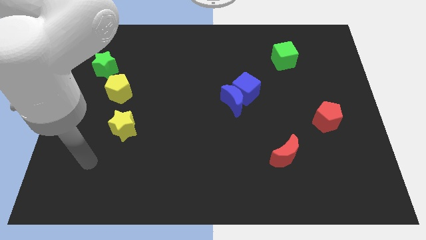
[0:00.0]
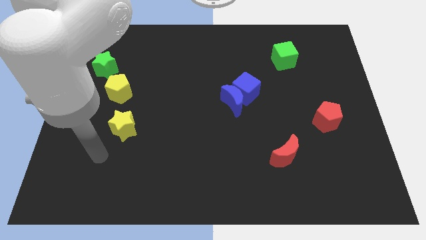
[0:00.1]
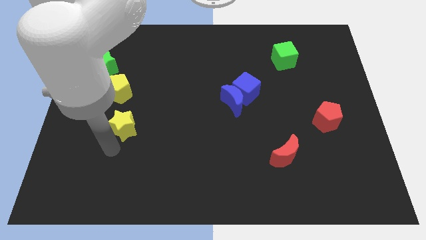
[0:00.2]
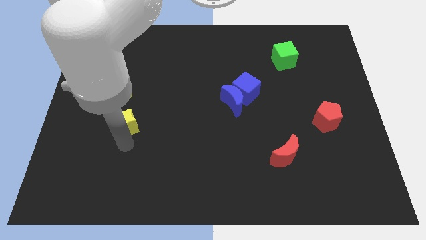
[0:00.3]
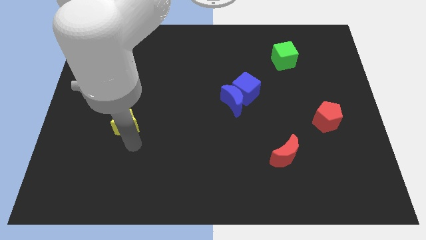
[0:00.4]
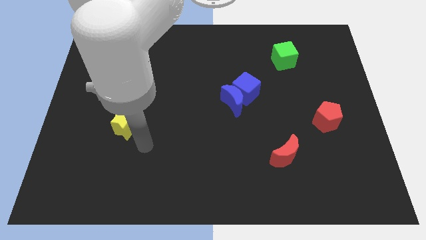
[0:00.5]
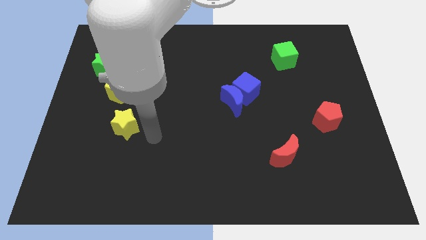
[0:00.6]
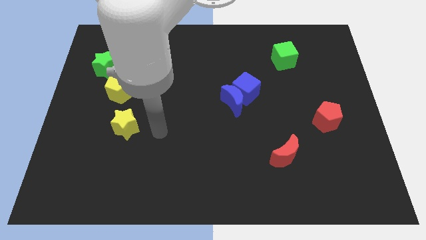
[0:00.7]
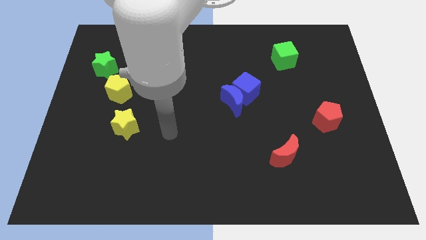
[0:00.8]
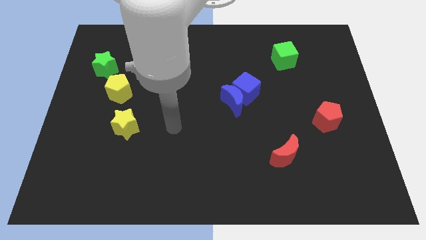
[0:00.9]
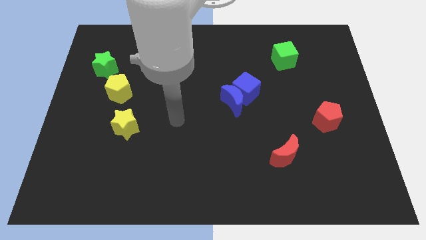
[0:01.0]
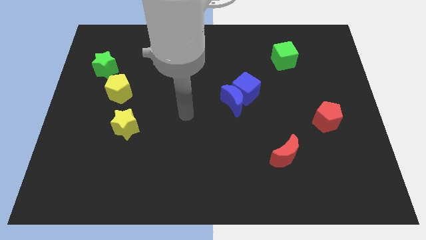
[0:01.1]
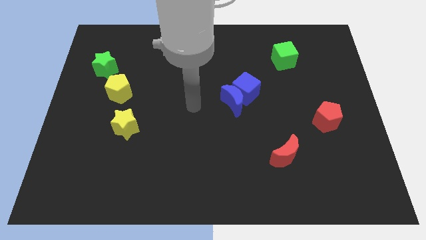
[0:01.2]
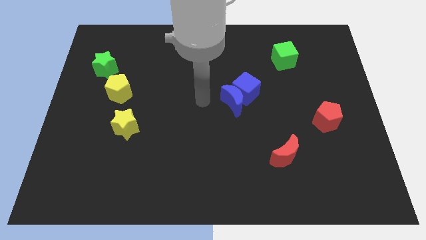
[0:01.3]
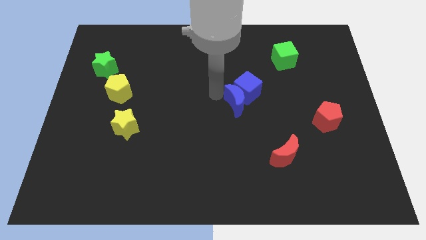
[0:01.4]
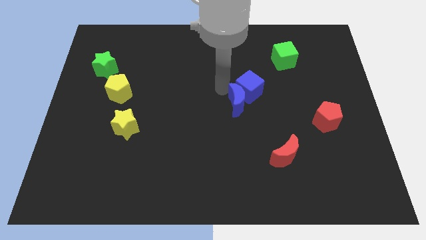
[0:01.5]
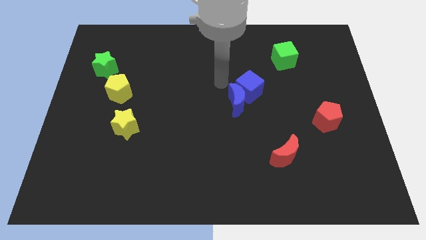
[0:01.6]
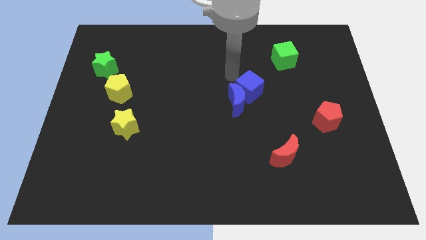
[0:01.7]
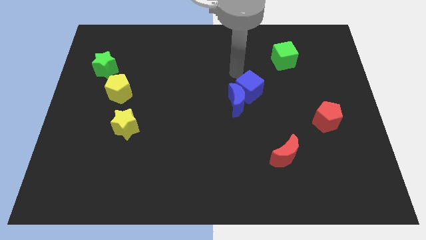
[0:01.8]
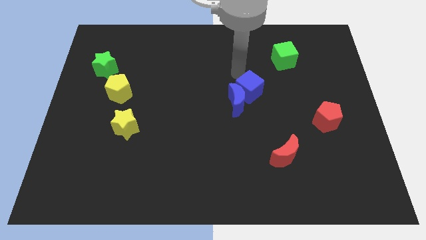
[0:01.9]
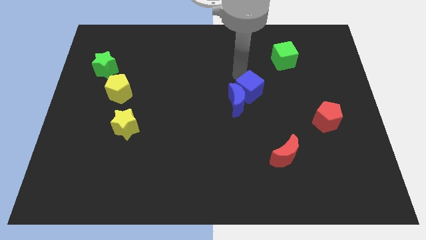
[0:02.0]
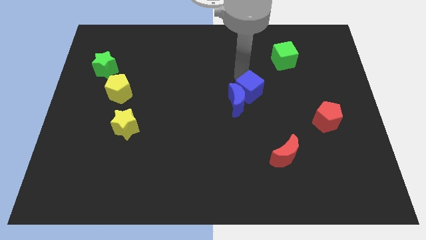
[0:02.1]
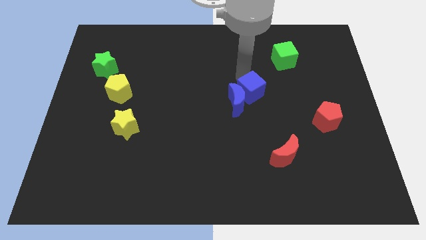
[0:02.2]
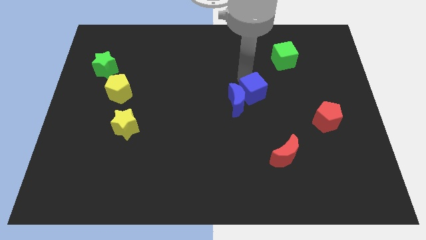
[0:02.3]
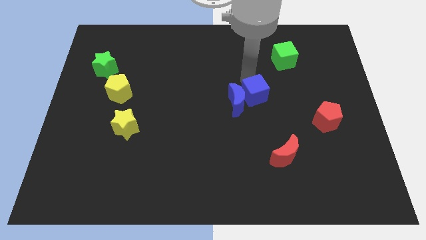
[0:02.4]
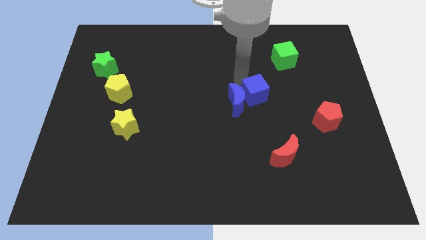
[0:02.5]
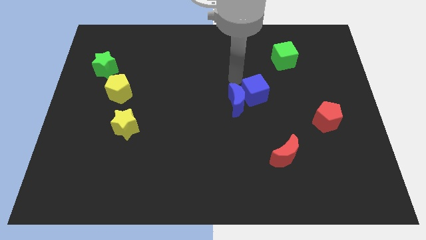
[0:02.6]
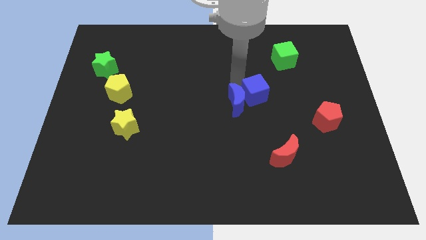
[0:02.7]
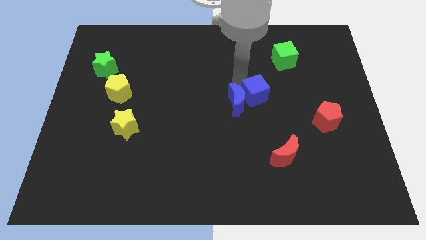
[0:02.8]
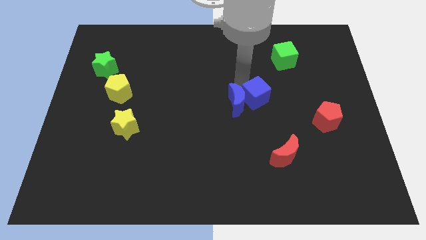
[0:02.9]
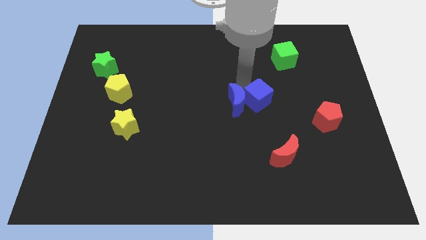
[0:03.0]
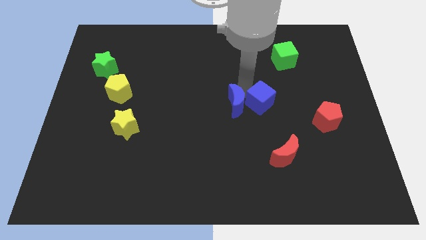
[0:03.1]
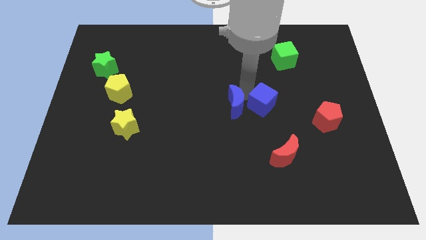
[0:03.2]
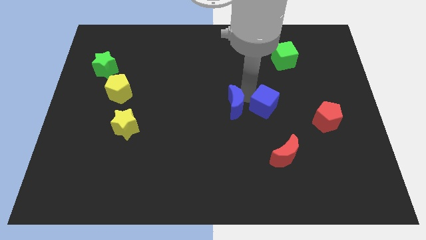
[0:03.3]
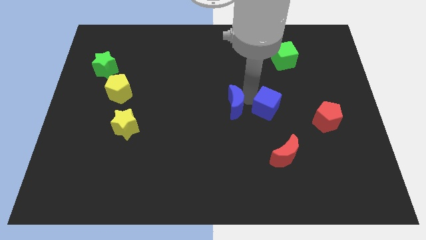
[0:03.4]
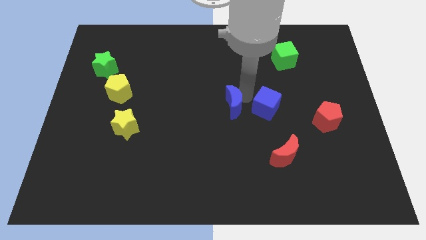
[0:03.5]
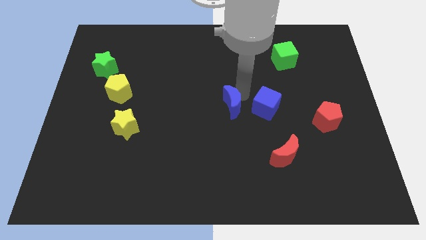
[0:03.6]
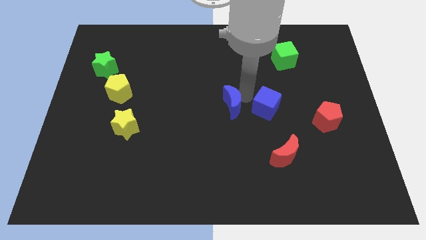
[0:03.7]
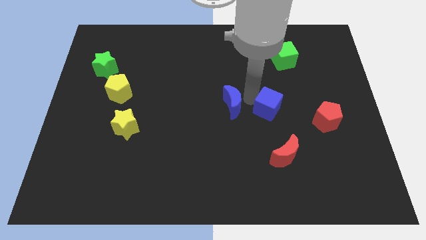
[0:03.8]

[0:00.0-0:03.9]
move the blue cube a bit downwards and then to the right

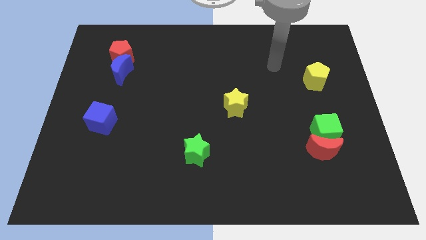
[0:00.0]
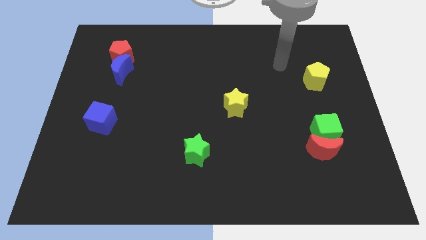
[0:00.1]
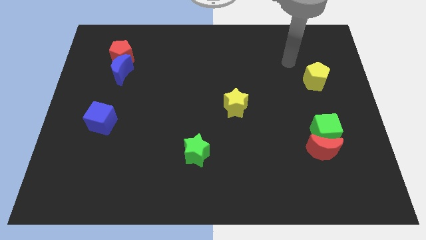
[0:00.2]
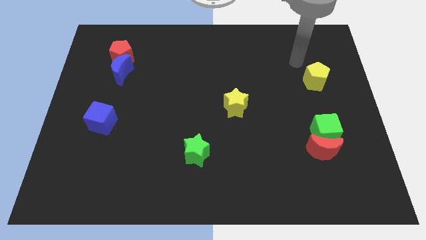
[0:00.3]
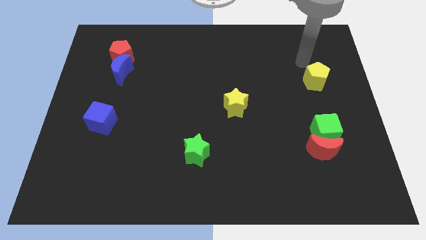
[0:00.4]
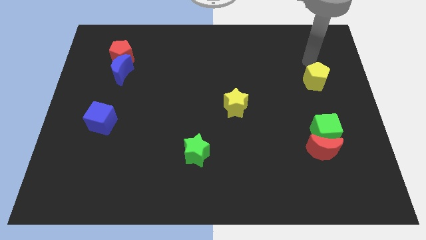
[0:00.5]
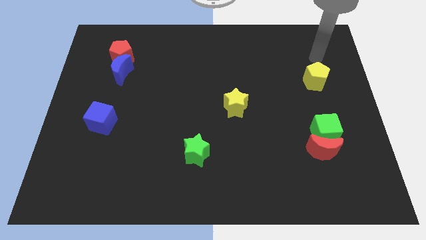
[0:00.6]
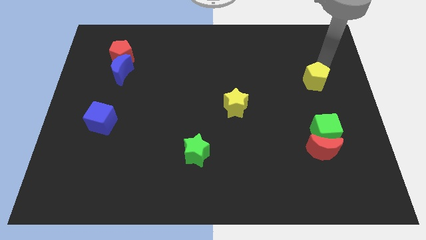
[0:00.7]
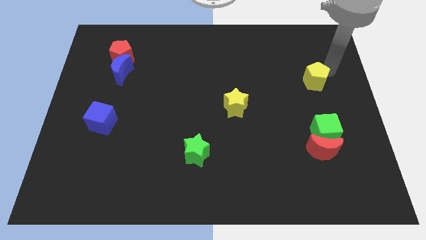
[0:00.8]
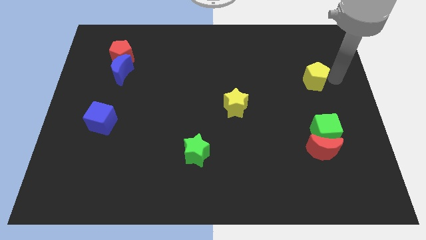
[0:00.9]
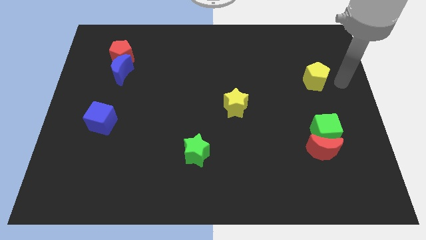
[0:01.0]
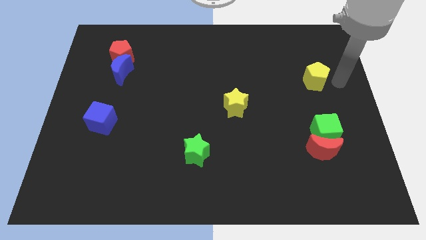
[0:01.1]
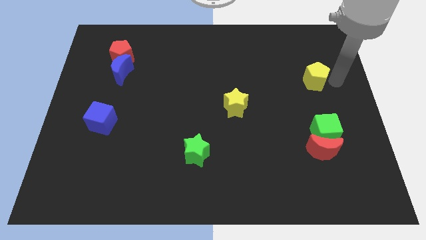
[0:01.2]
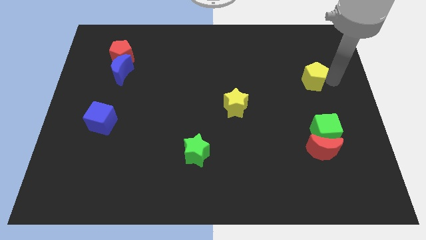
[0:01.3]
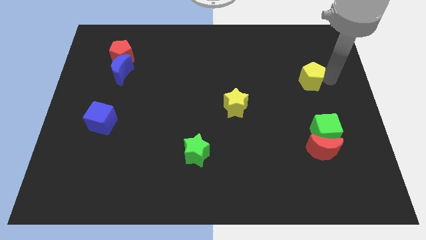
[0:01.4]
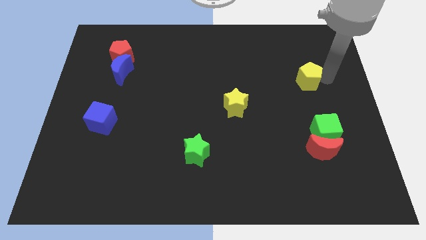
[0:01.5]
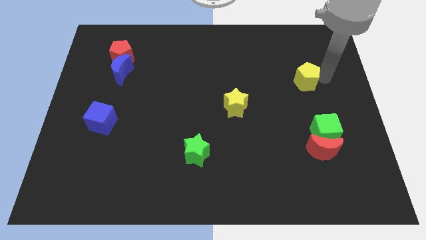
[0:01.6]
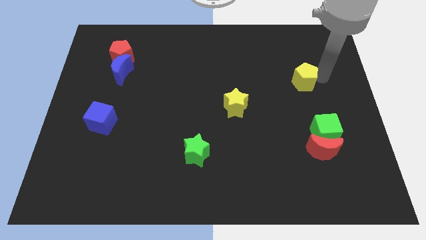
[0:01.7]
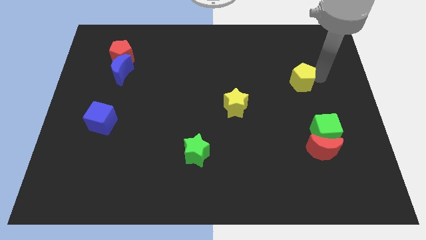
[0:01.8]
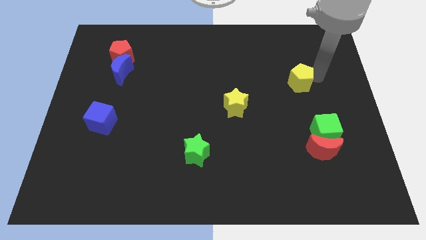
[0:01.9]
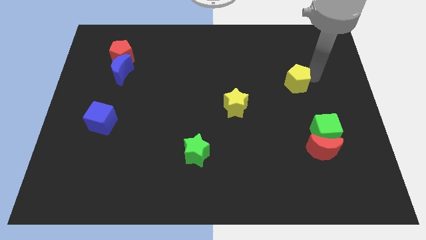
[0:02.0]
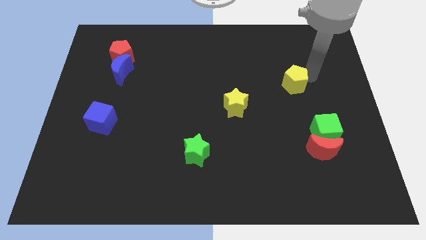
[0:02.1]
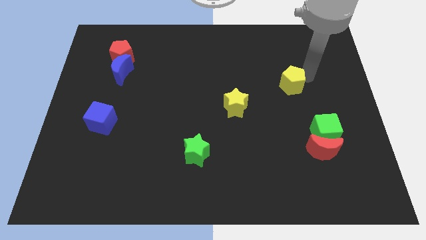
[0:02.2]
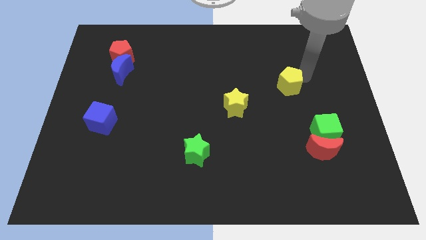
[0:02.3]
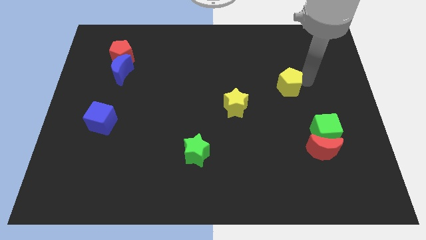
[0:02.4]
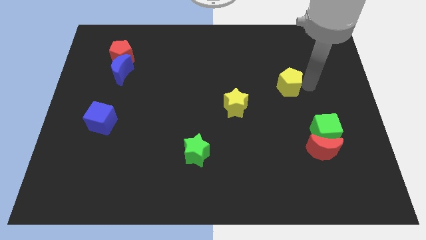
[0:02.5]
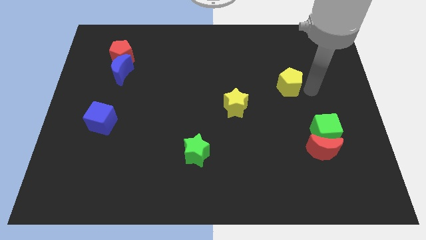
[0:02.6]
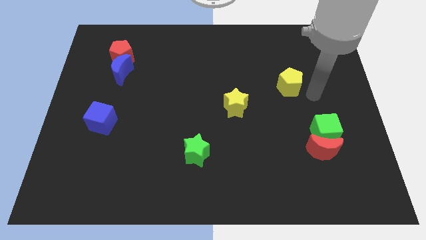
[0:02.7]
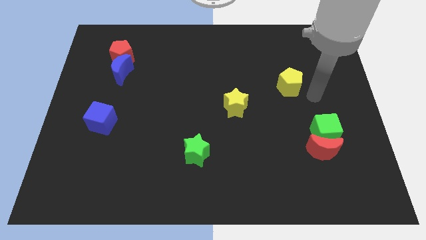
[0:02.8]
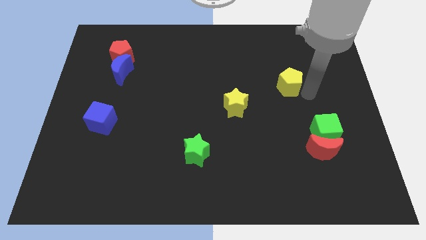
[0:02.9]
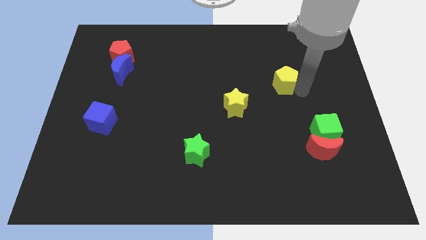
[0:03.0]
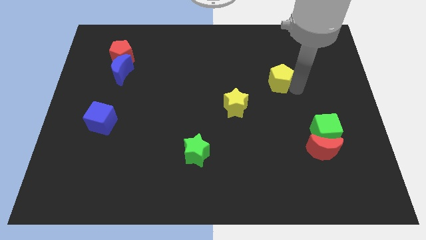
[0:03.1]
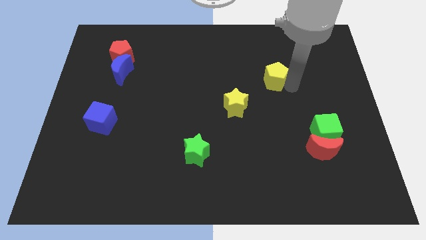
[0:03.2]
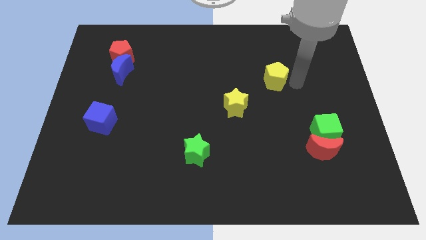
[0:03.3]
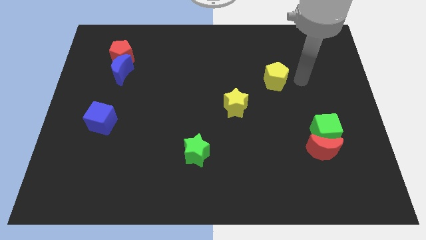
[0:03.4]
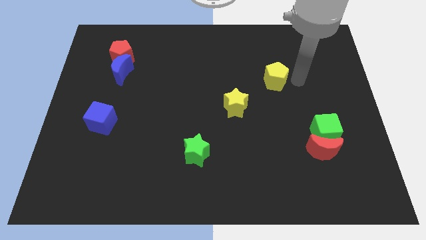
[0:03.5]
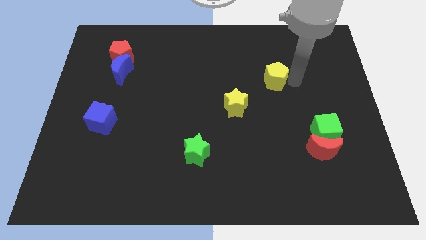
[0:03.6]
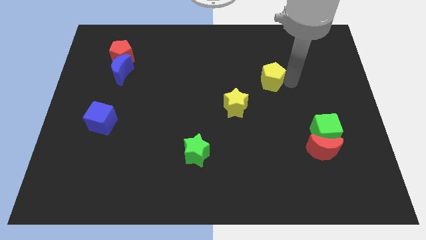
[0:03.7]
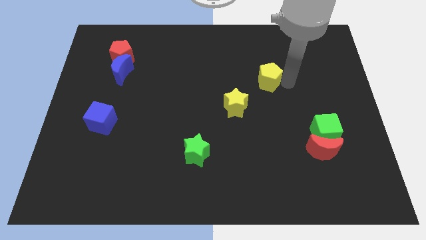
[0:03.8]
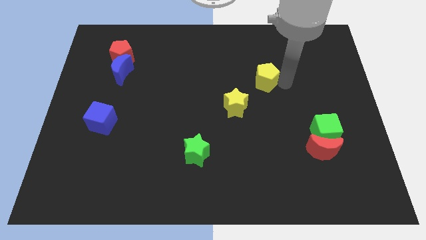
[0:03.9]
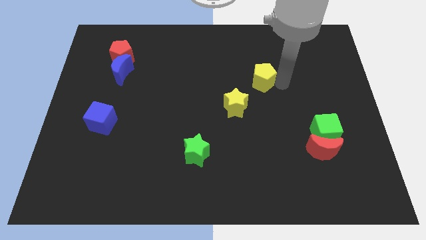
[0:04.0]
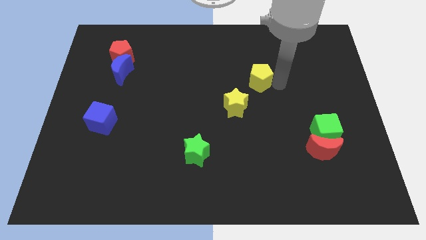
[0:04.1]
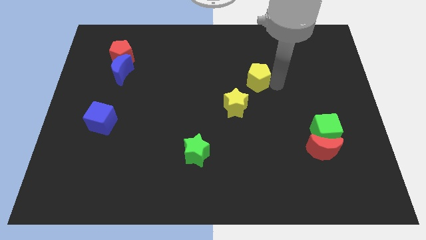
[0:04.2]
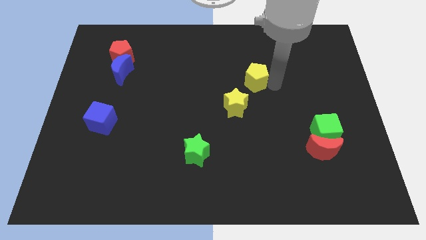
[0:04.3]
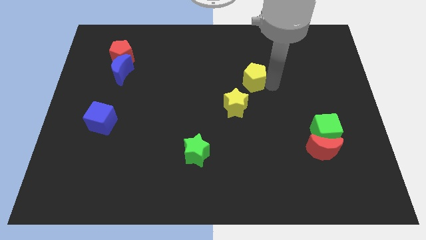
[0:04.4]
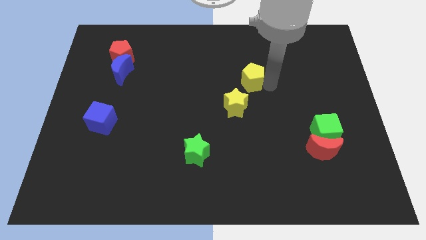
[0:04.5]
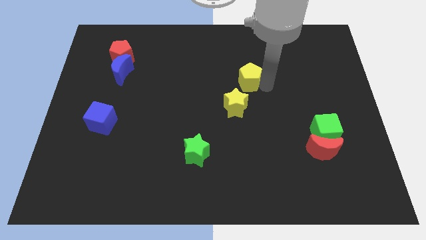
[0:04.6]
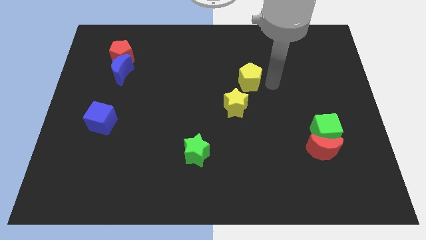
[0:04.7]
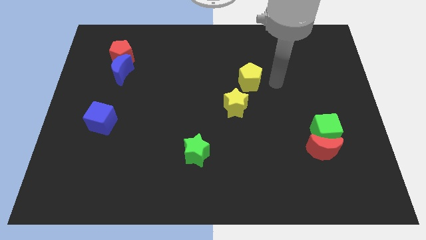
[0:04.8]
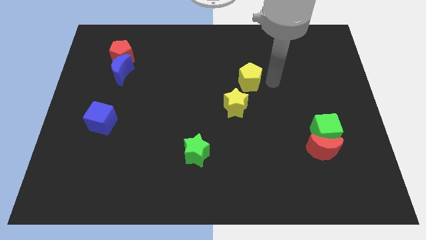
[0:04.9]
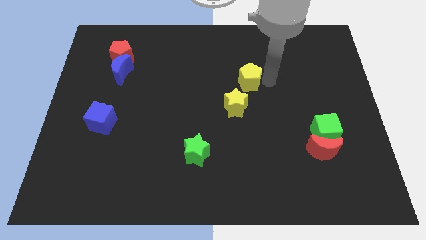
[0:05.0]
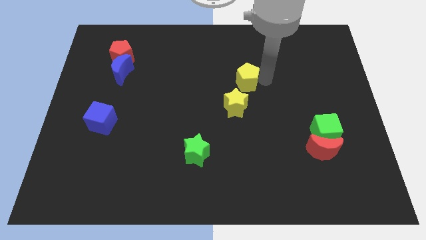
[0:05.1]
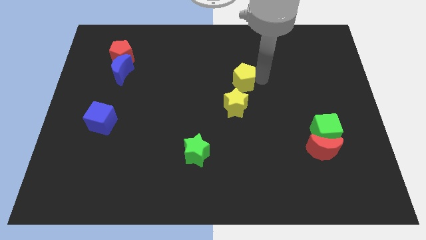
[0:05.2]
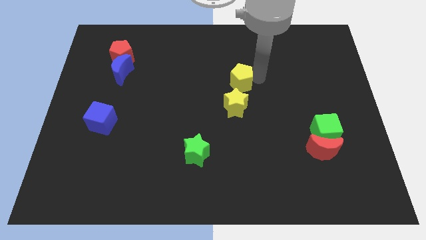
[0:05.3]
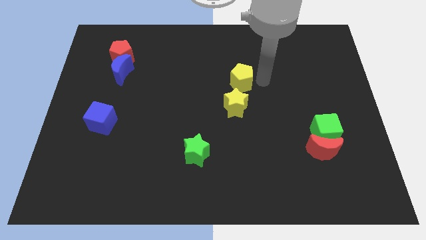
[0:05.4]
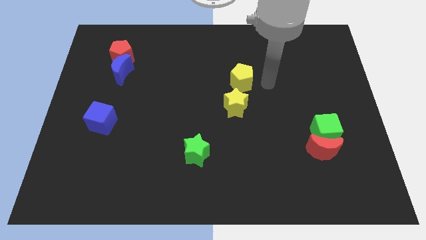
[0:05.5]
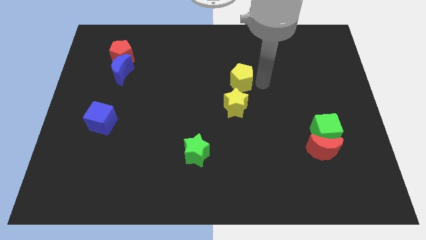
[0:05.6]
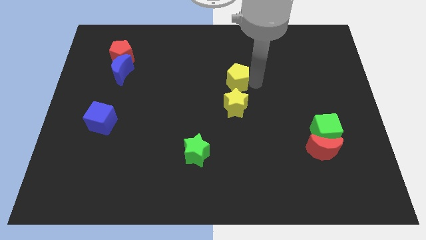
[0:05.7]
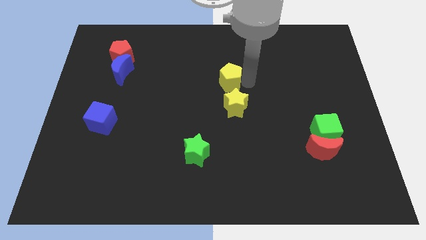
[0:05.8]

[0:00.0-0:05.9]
move the yellow pentagon left
